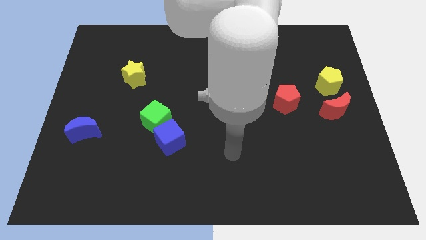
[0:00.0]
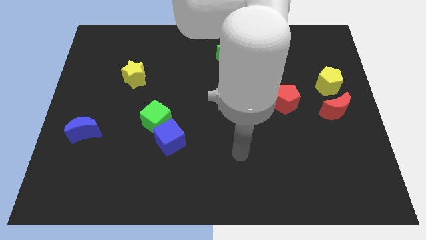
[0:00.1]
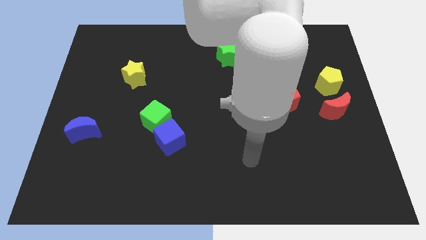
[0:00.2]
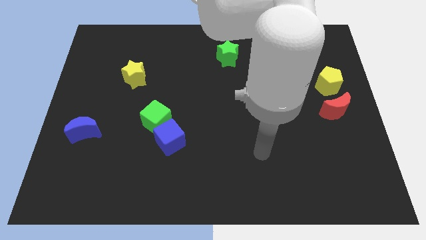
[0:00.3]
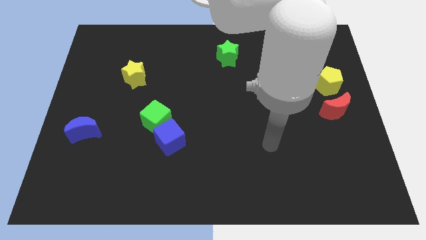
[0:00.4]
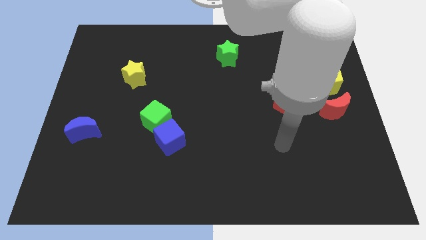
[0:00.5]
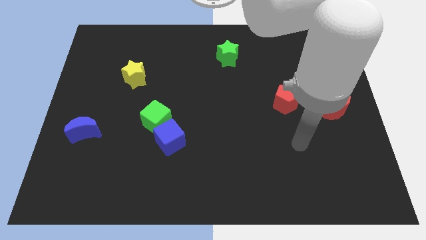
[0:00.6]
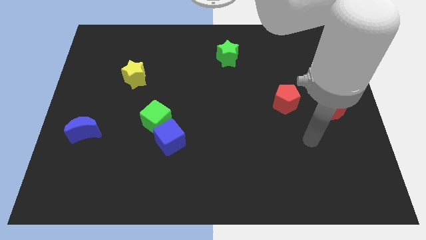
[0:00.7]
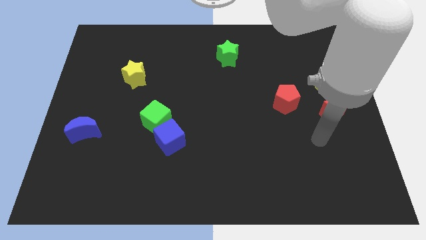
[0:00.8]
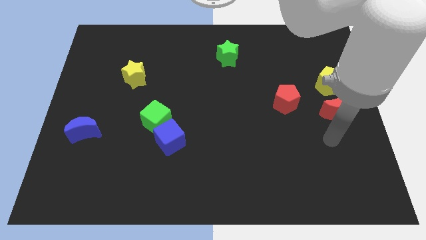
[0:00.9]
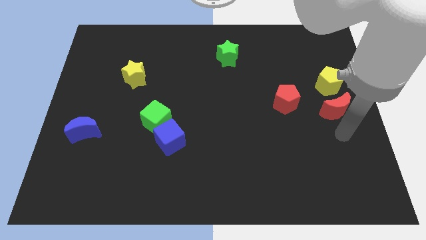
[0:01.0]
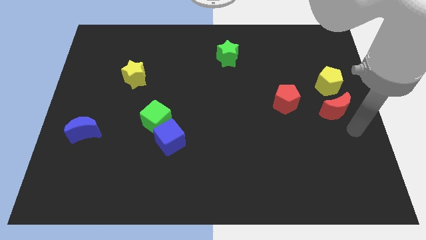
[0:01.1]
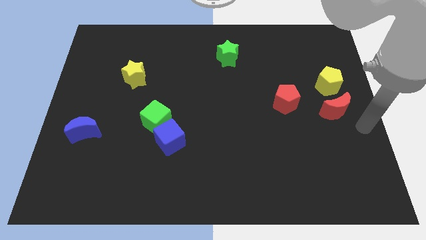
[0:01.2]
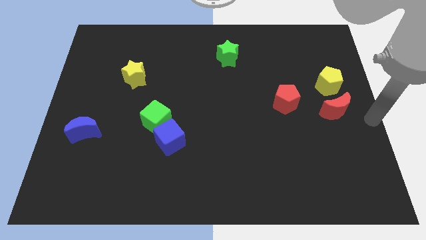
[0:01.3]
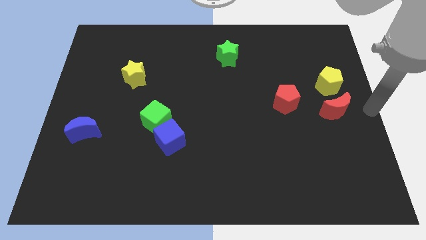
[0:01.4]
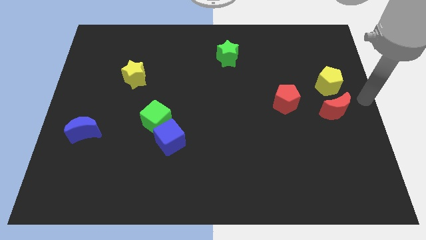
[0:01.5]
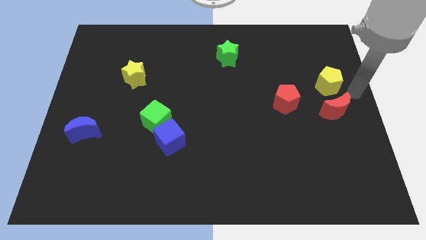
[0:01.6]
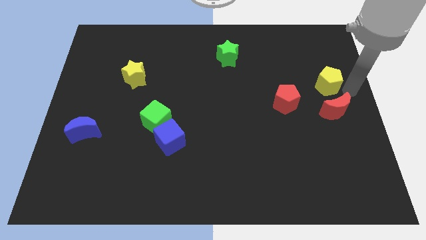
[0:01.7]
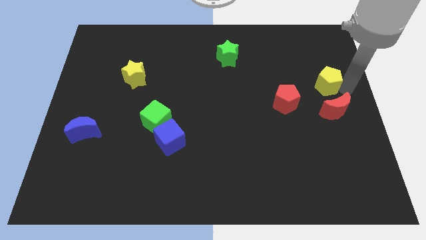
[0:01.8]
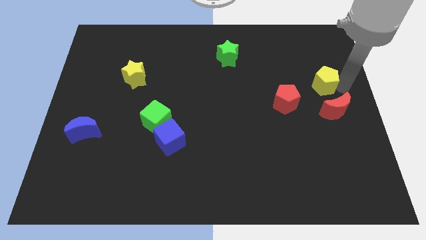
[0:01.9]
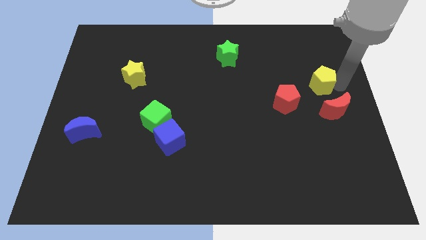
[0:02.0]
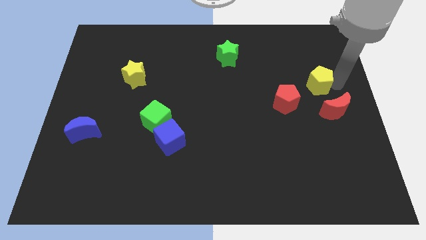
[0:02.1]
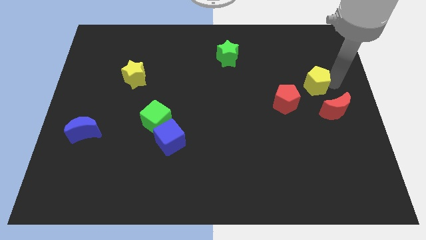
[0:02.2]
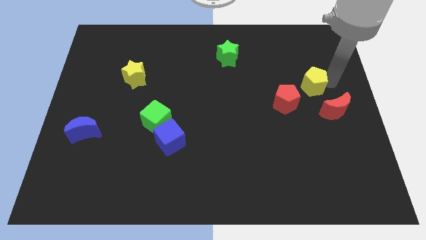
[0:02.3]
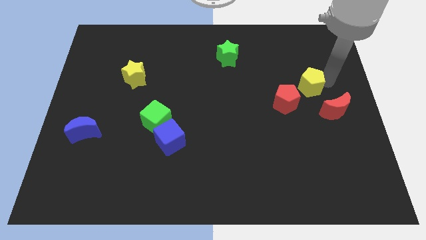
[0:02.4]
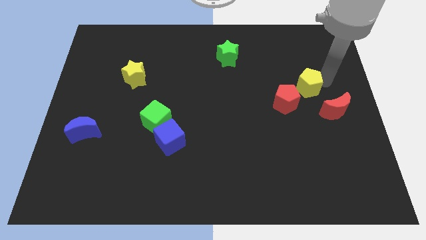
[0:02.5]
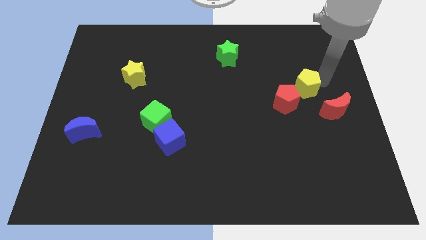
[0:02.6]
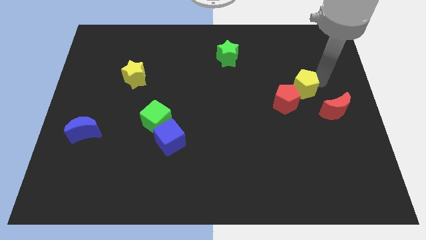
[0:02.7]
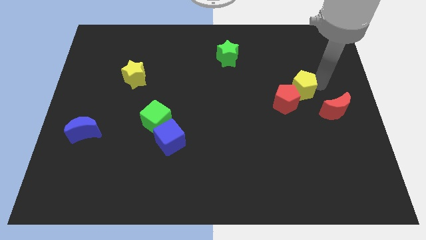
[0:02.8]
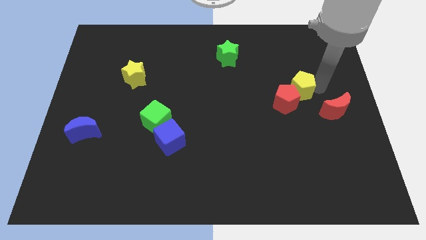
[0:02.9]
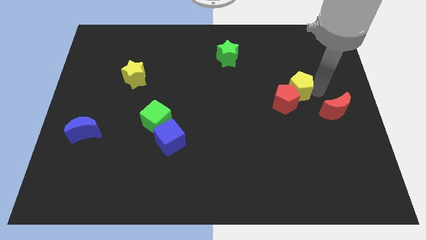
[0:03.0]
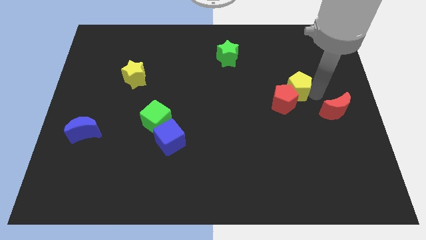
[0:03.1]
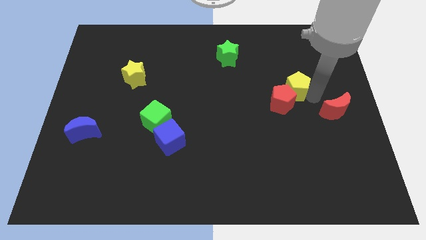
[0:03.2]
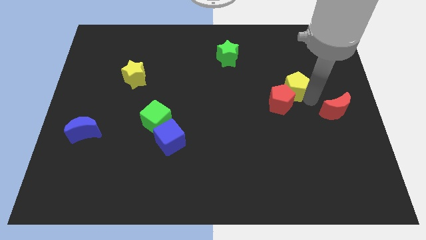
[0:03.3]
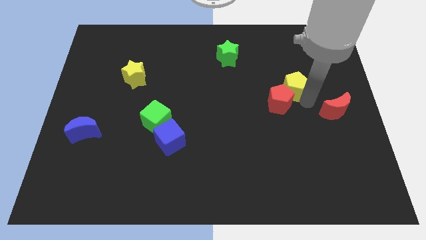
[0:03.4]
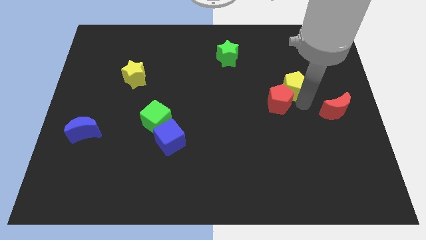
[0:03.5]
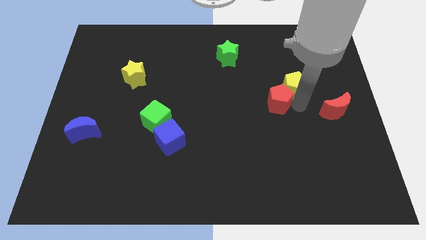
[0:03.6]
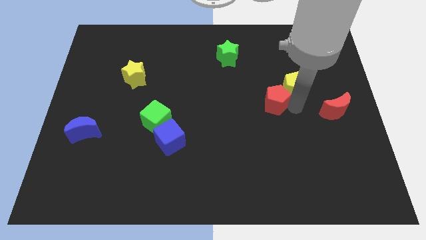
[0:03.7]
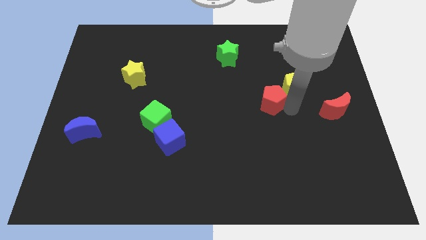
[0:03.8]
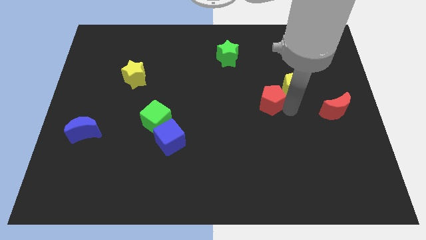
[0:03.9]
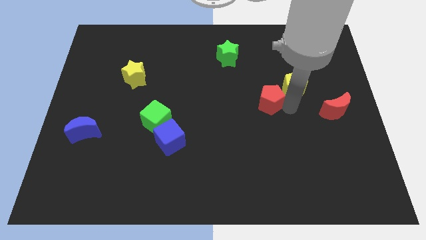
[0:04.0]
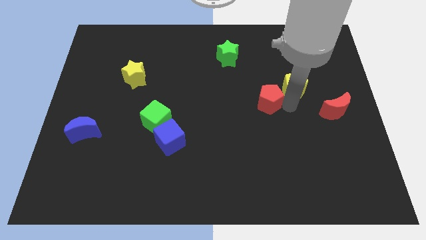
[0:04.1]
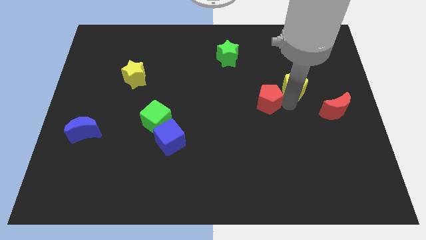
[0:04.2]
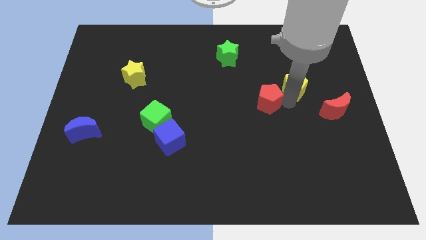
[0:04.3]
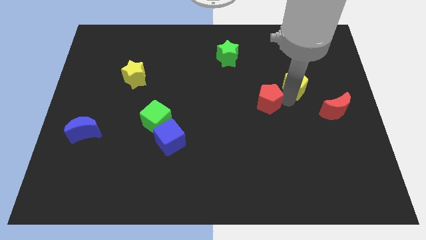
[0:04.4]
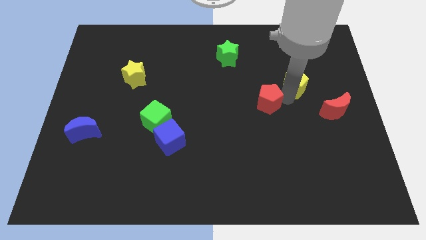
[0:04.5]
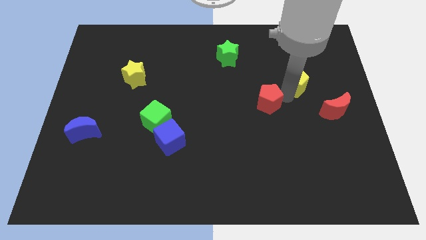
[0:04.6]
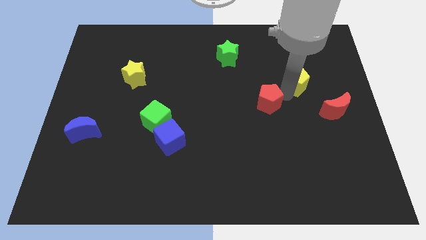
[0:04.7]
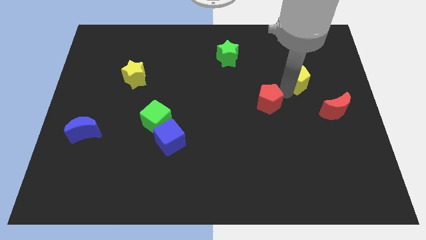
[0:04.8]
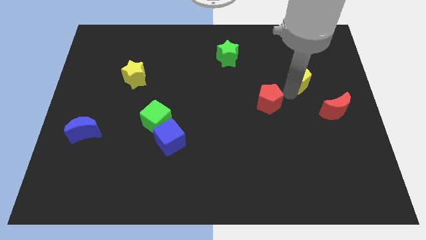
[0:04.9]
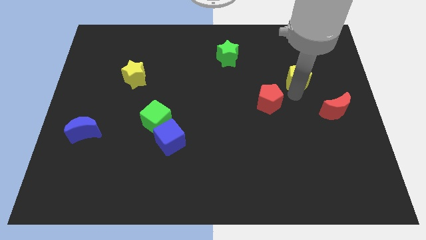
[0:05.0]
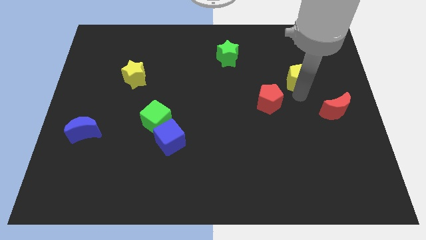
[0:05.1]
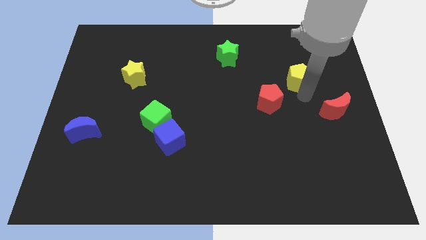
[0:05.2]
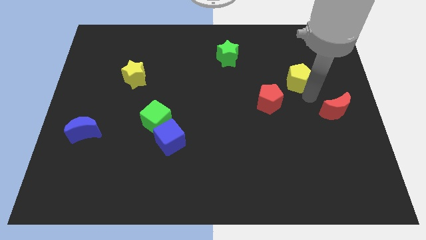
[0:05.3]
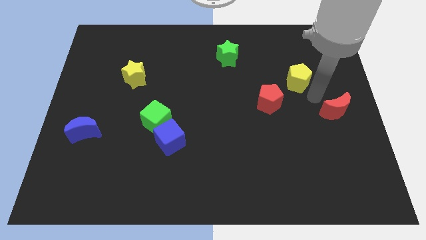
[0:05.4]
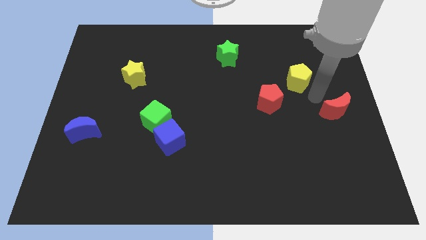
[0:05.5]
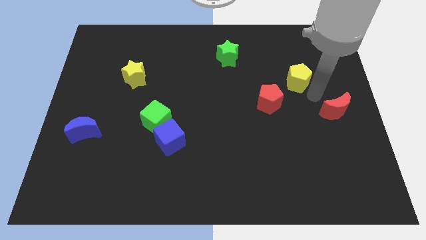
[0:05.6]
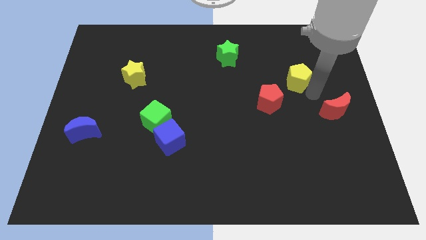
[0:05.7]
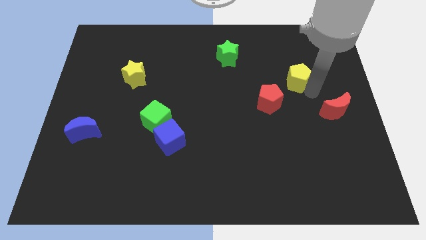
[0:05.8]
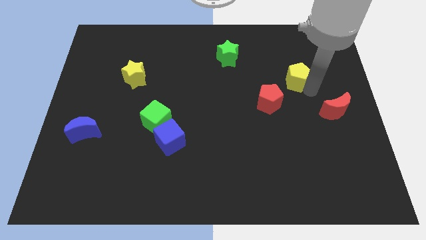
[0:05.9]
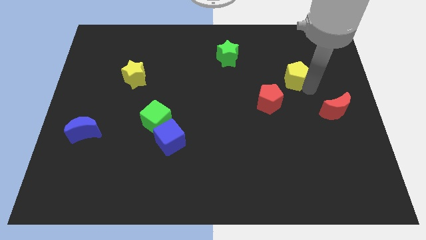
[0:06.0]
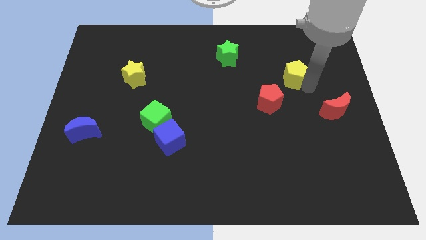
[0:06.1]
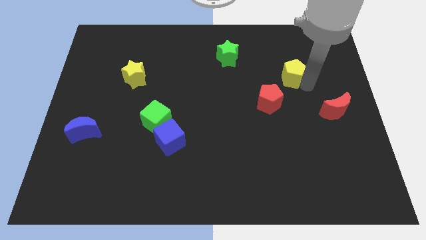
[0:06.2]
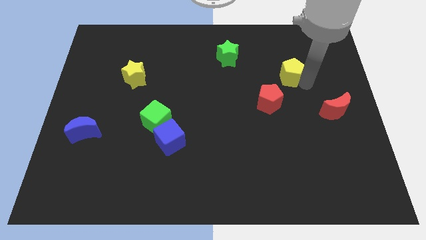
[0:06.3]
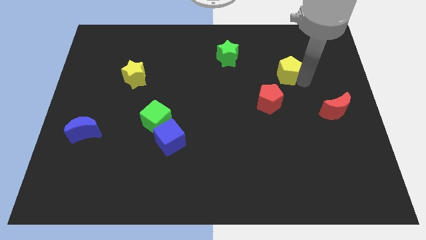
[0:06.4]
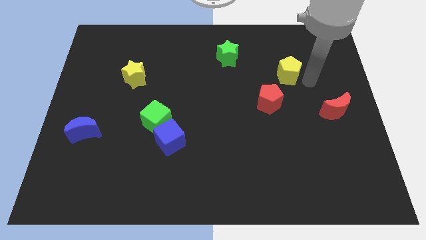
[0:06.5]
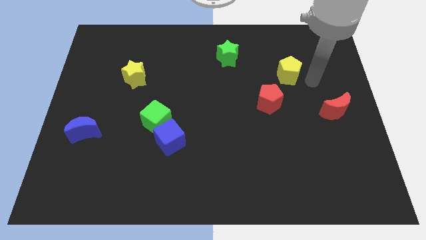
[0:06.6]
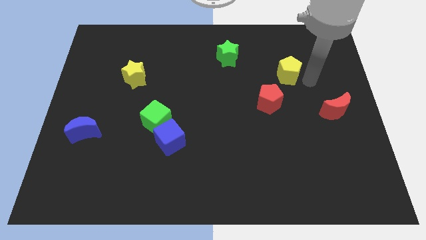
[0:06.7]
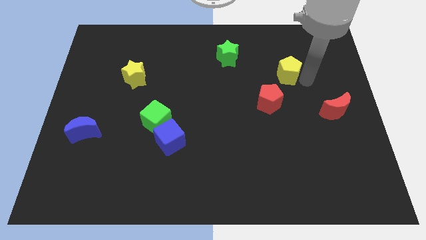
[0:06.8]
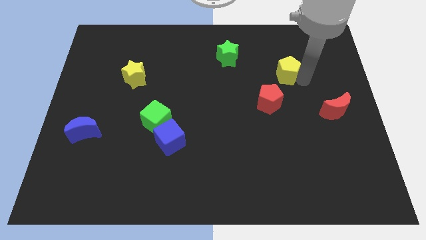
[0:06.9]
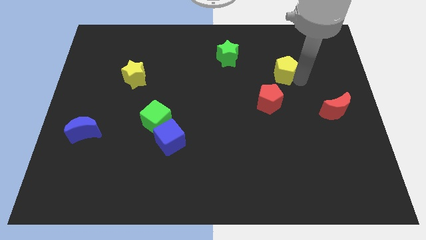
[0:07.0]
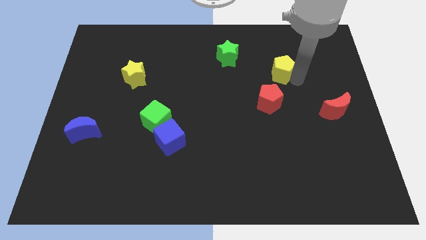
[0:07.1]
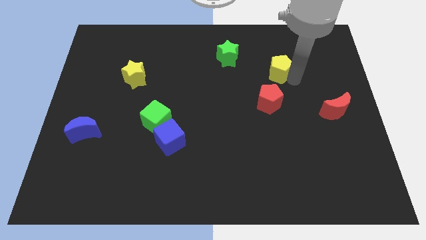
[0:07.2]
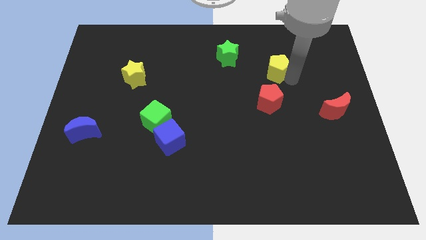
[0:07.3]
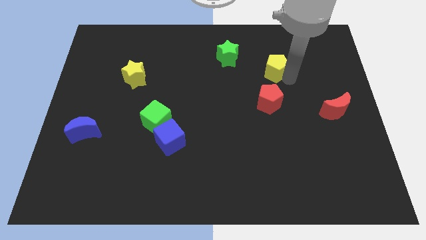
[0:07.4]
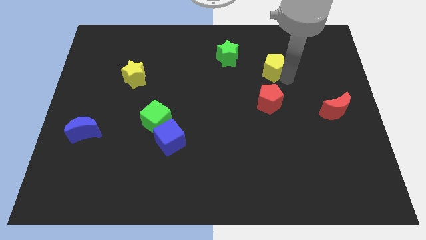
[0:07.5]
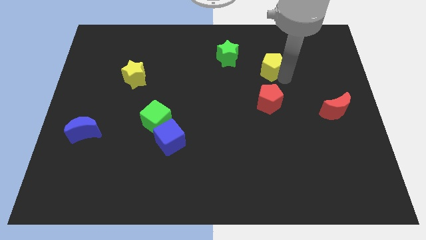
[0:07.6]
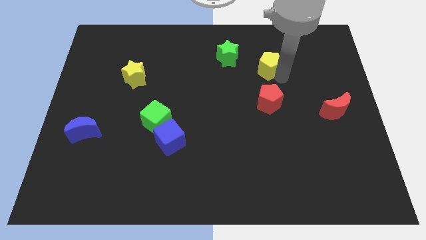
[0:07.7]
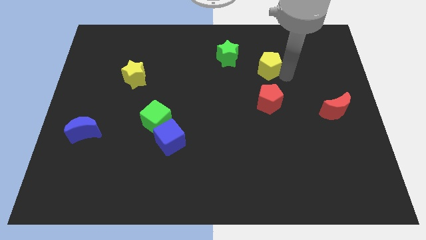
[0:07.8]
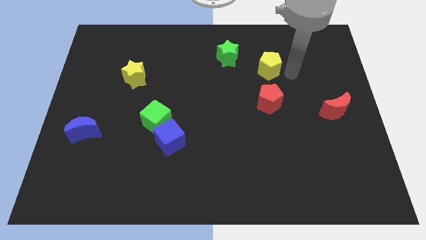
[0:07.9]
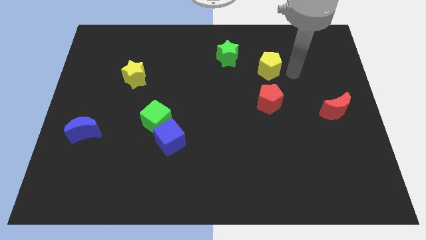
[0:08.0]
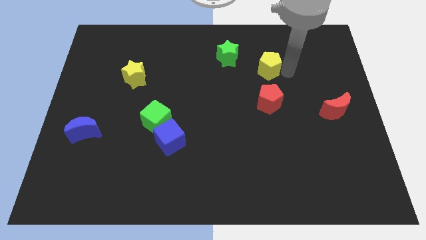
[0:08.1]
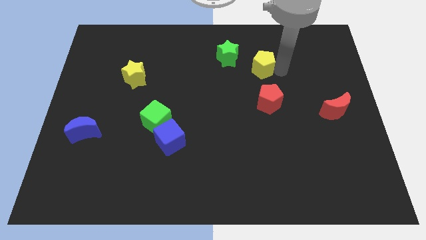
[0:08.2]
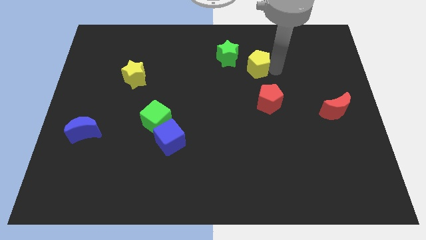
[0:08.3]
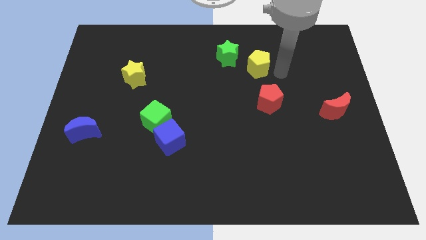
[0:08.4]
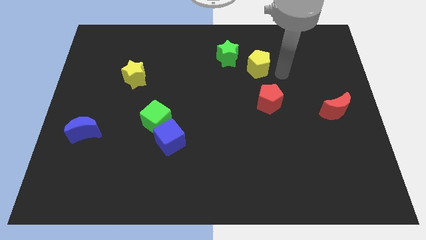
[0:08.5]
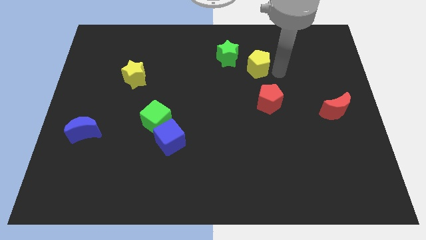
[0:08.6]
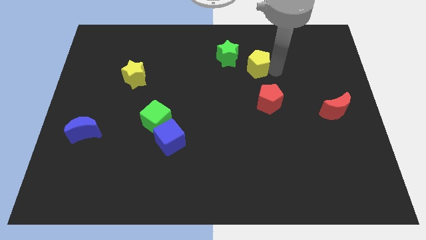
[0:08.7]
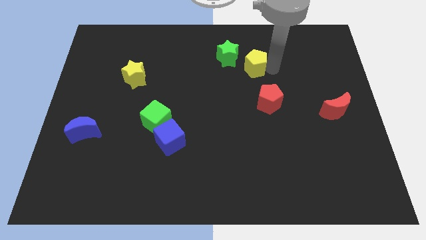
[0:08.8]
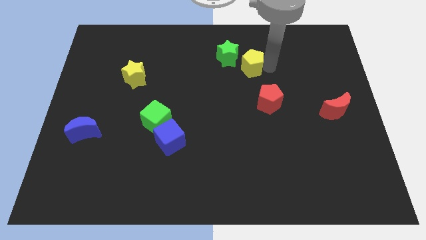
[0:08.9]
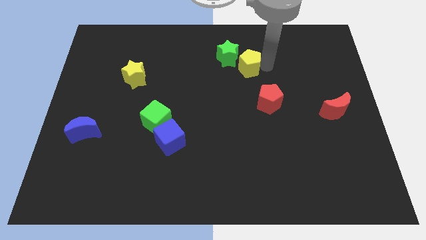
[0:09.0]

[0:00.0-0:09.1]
move the yellow pentagon next to the green star
